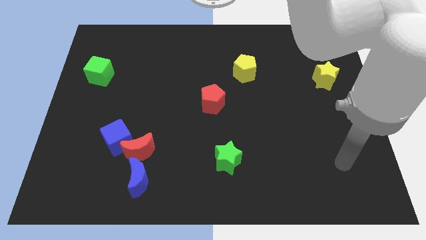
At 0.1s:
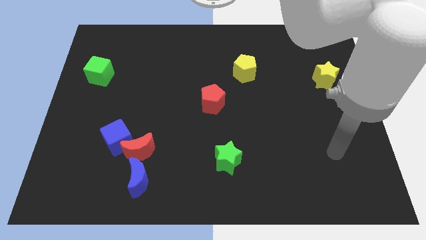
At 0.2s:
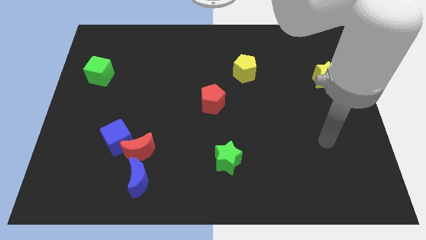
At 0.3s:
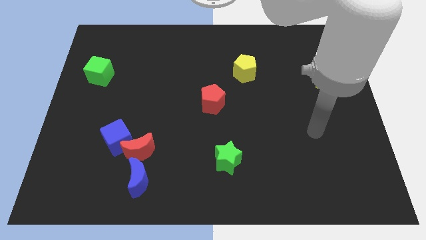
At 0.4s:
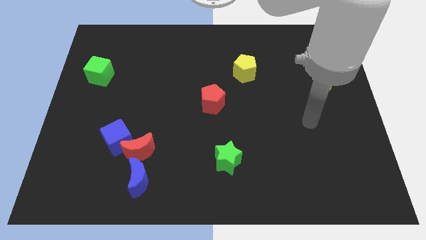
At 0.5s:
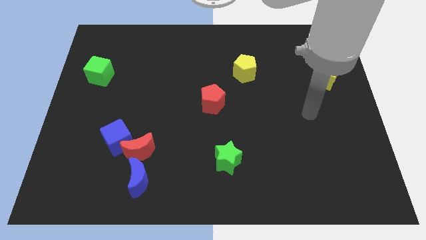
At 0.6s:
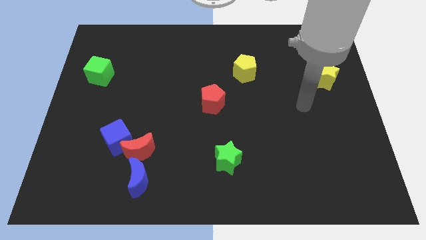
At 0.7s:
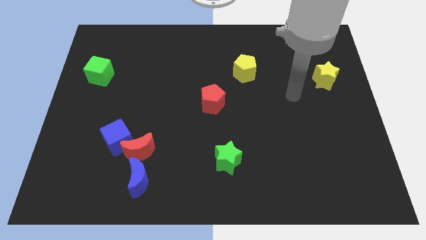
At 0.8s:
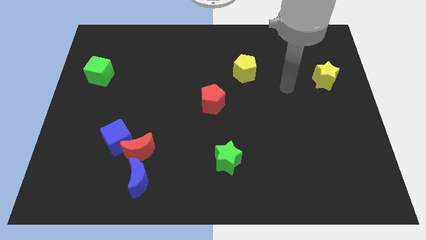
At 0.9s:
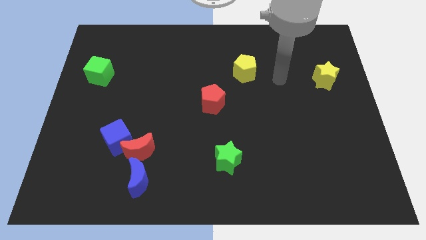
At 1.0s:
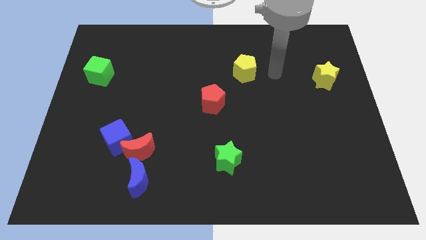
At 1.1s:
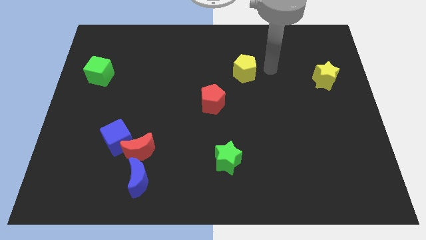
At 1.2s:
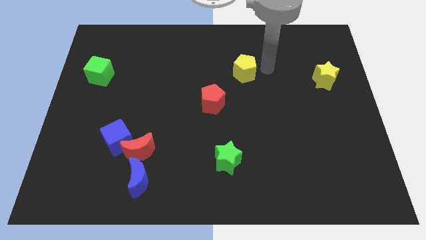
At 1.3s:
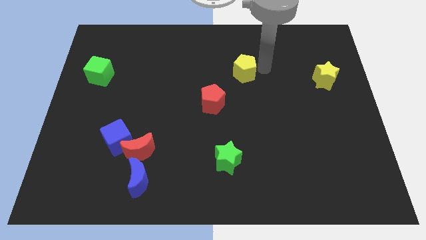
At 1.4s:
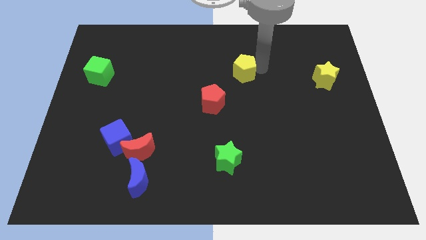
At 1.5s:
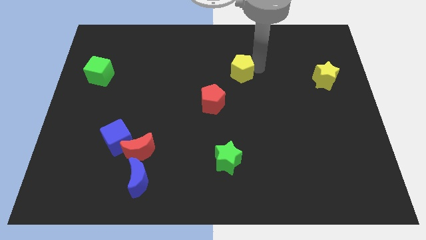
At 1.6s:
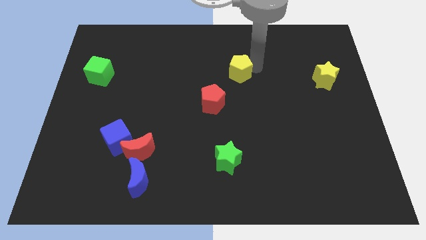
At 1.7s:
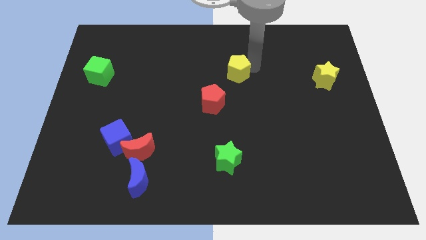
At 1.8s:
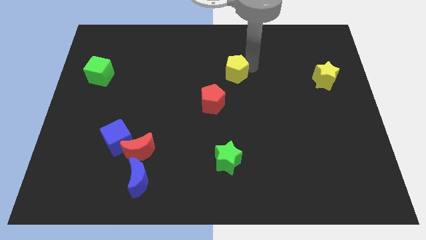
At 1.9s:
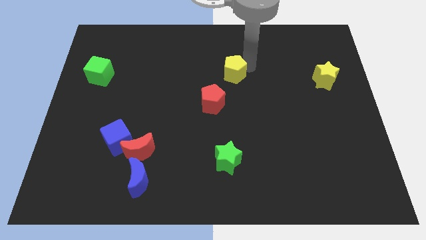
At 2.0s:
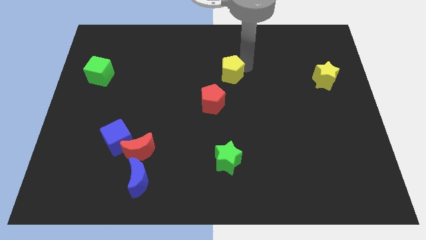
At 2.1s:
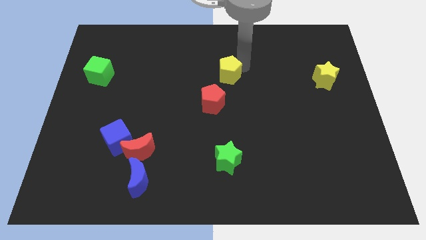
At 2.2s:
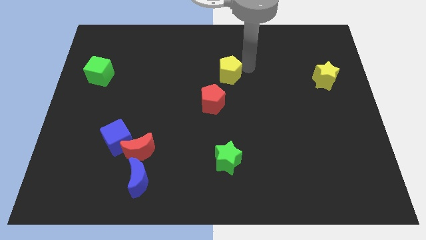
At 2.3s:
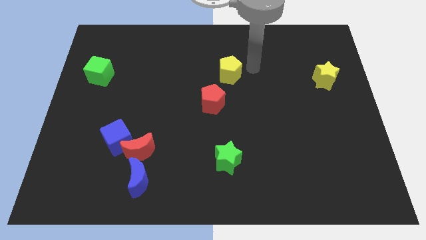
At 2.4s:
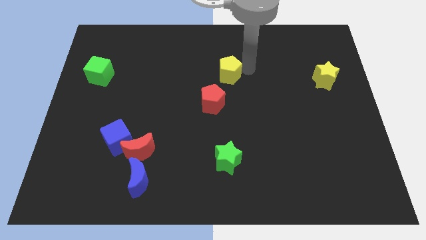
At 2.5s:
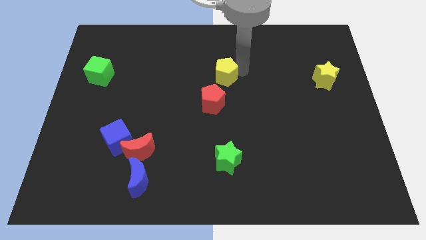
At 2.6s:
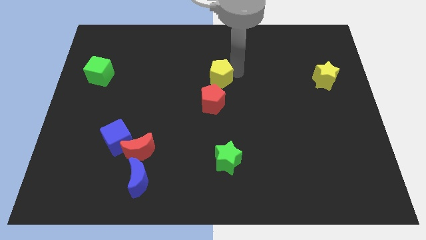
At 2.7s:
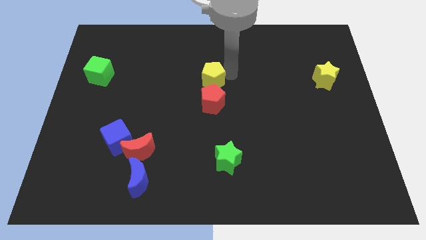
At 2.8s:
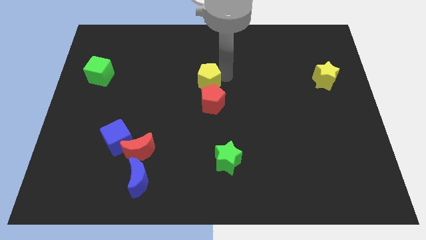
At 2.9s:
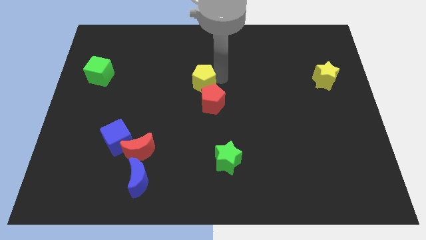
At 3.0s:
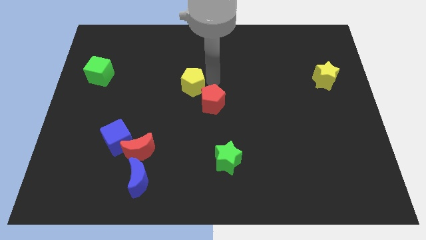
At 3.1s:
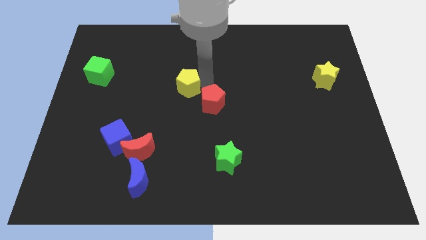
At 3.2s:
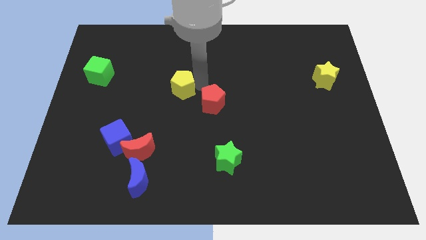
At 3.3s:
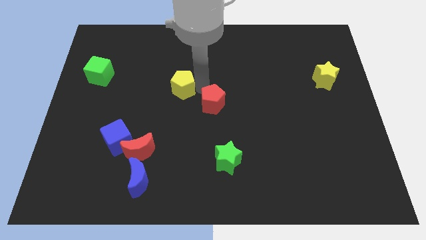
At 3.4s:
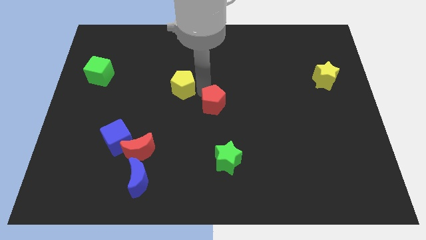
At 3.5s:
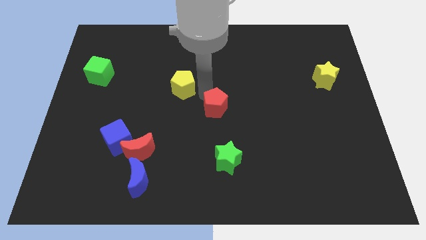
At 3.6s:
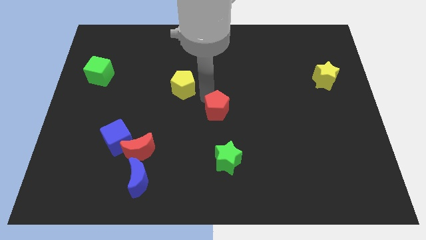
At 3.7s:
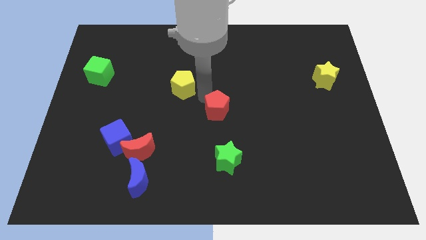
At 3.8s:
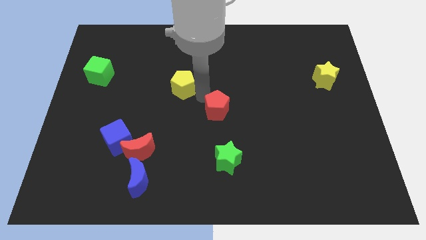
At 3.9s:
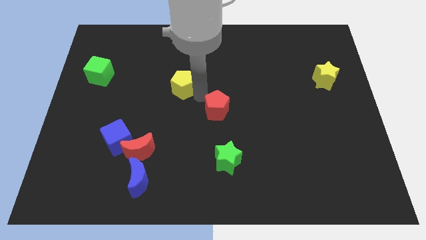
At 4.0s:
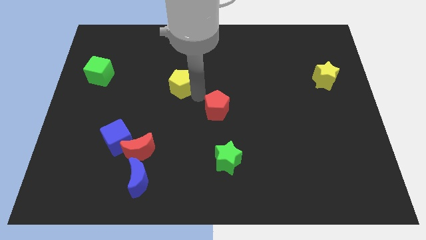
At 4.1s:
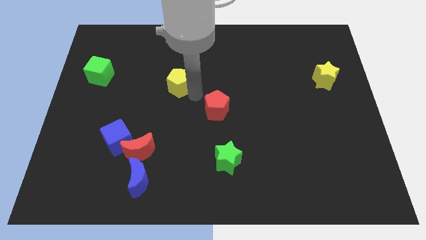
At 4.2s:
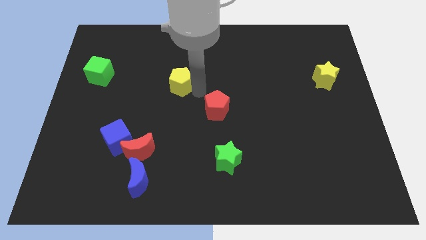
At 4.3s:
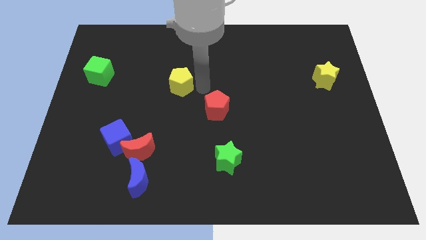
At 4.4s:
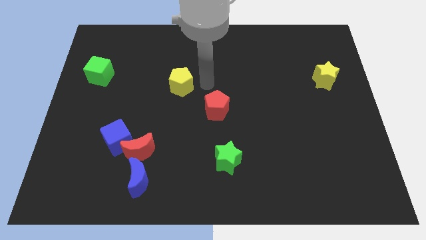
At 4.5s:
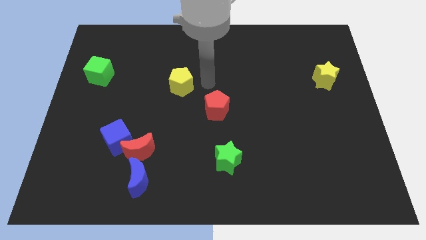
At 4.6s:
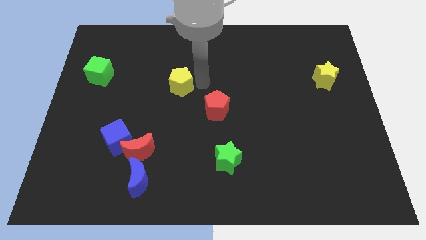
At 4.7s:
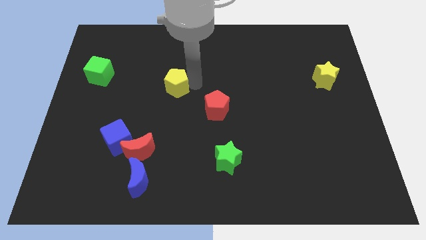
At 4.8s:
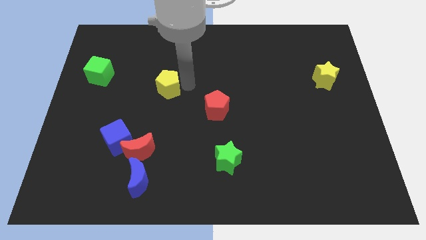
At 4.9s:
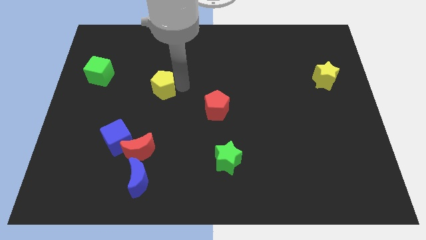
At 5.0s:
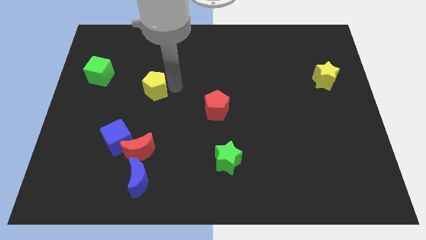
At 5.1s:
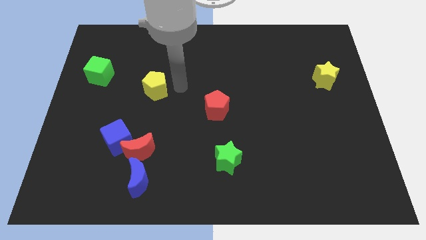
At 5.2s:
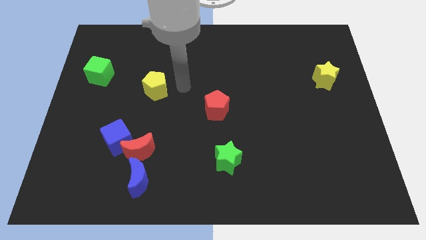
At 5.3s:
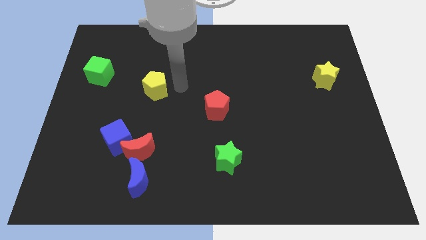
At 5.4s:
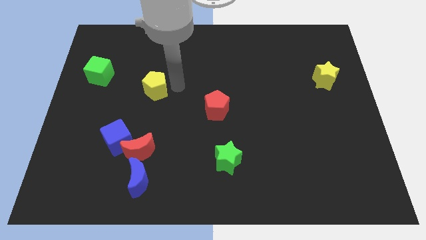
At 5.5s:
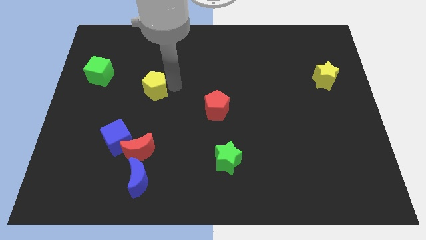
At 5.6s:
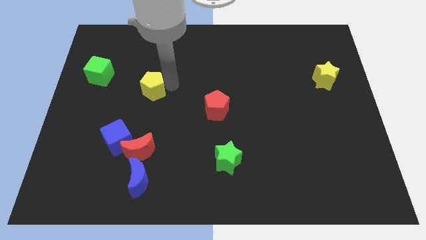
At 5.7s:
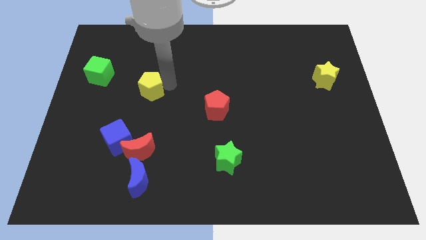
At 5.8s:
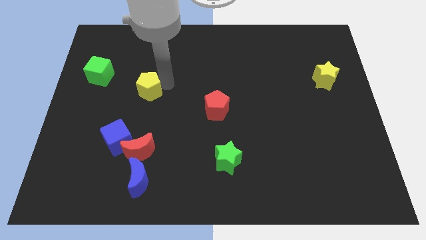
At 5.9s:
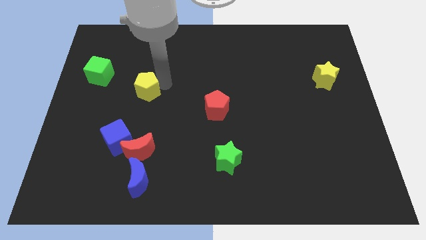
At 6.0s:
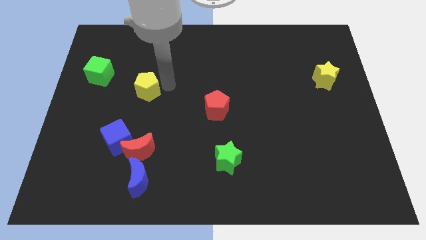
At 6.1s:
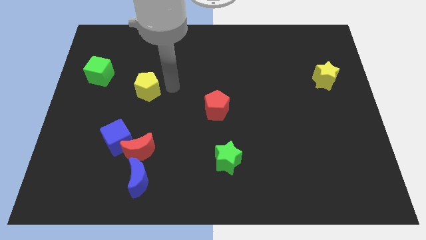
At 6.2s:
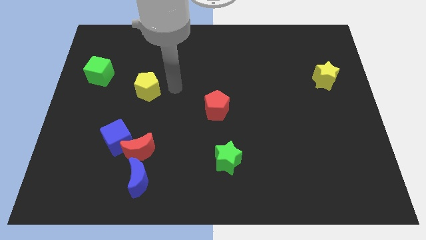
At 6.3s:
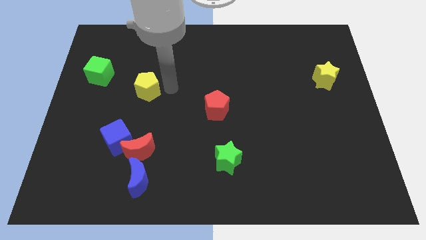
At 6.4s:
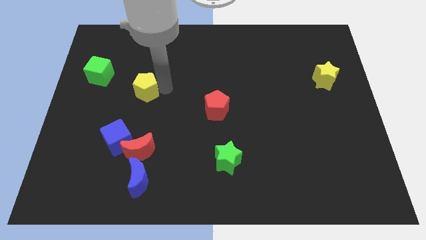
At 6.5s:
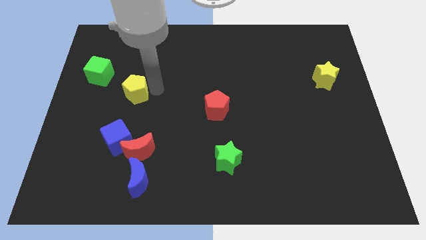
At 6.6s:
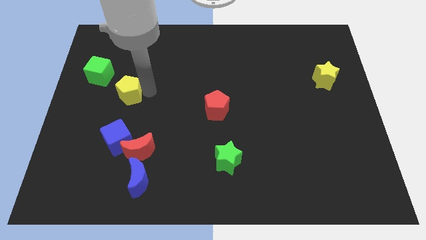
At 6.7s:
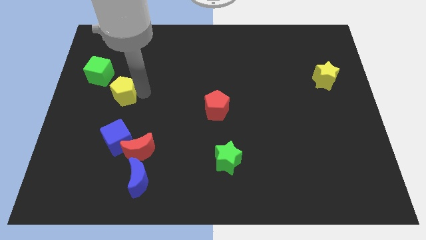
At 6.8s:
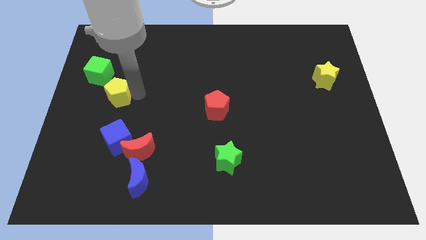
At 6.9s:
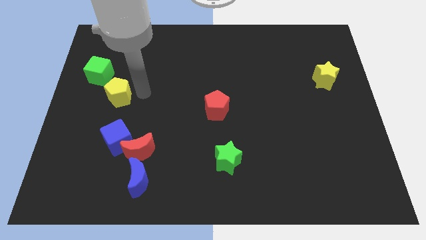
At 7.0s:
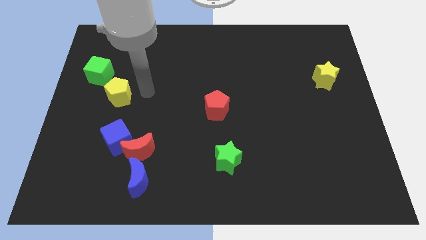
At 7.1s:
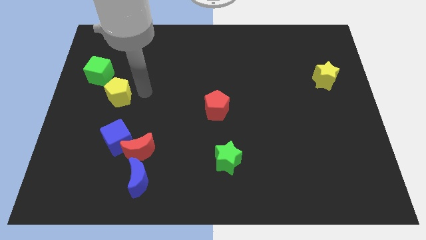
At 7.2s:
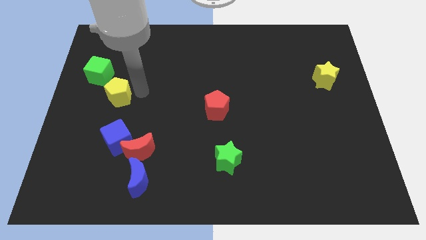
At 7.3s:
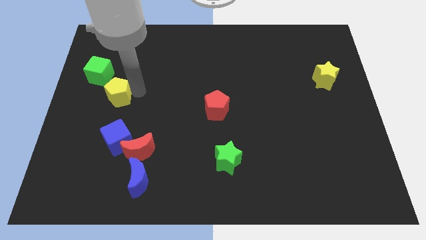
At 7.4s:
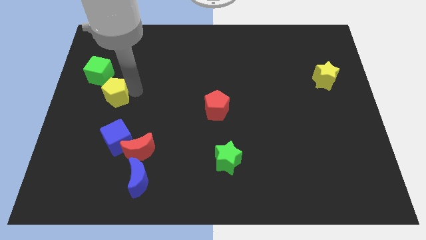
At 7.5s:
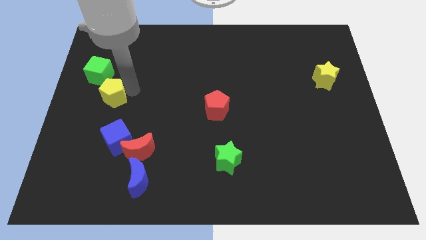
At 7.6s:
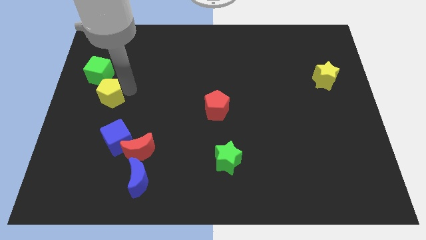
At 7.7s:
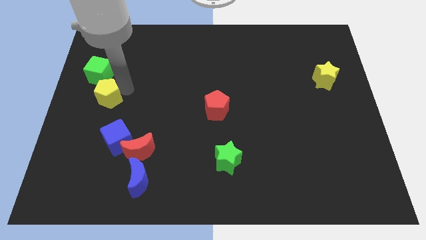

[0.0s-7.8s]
move the yellow pentagon to the center left

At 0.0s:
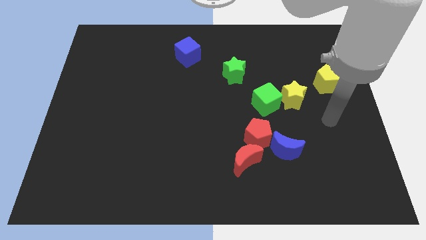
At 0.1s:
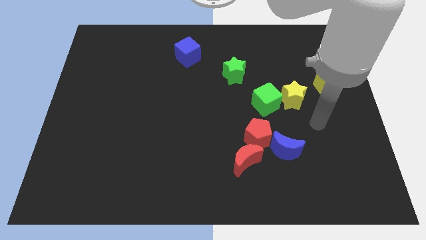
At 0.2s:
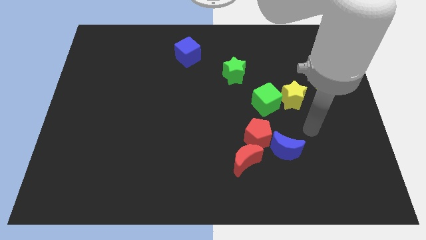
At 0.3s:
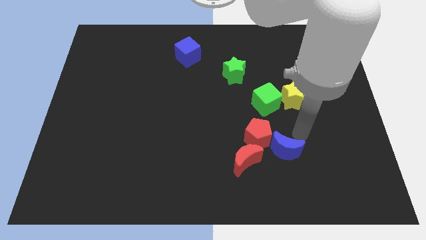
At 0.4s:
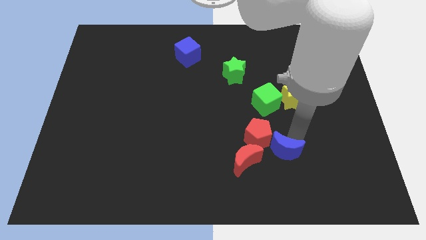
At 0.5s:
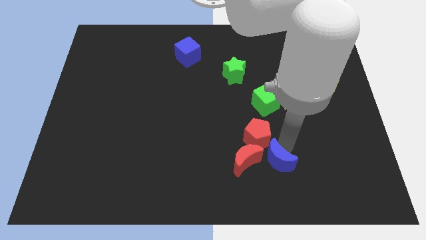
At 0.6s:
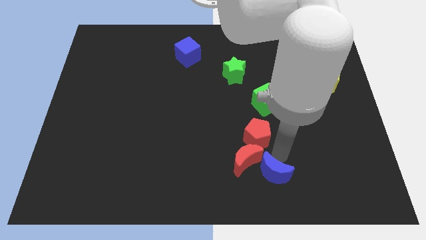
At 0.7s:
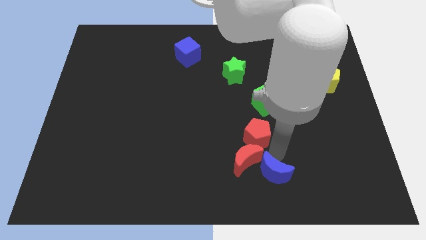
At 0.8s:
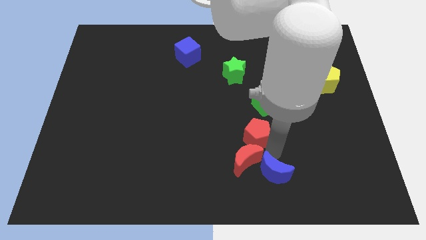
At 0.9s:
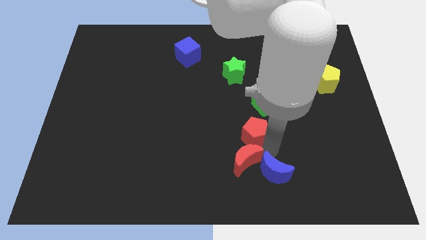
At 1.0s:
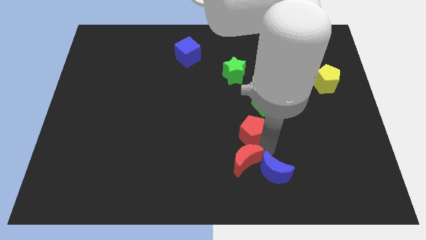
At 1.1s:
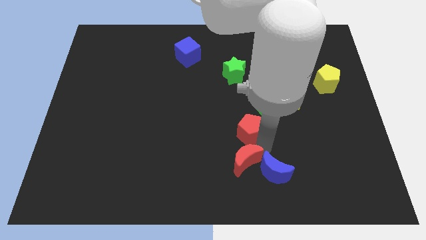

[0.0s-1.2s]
move the red pentagon to the center
